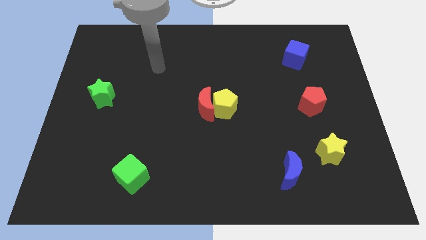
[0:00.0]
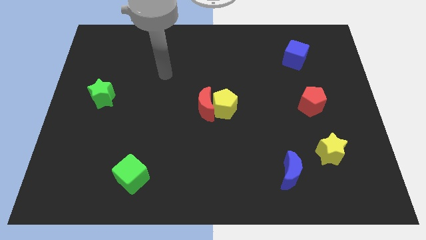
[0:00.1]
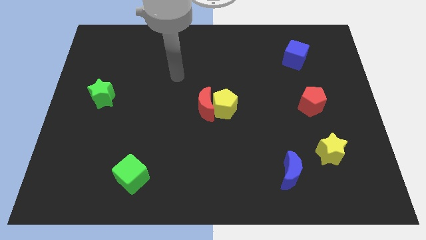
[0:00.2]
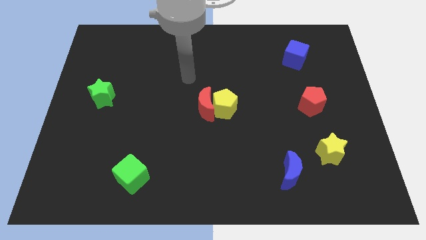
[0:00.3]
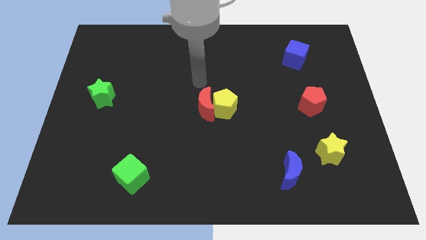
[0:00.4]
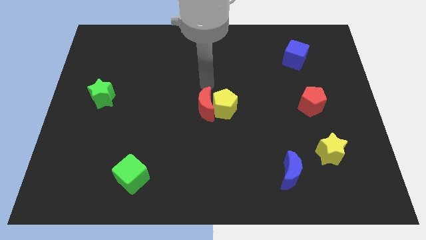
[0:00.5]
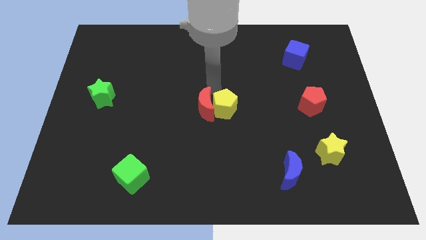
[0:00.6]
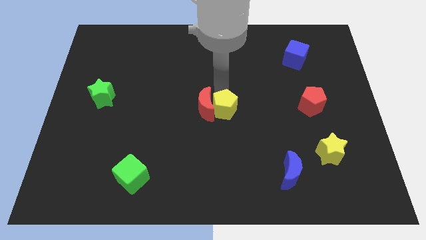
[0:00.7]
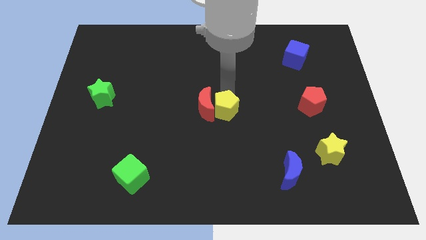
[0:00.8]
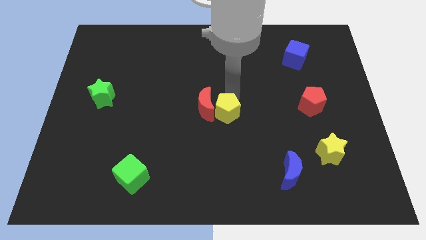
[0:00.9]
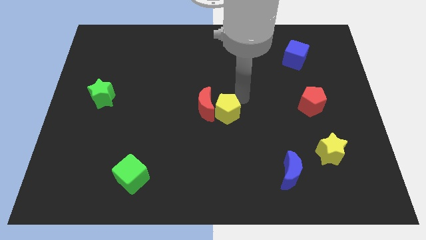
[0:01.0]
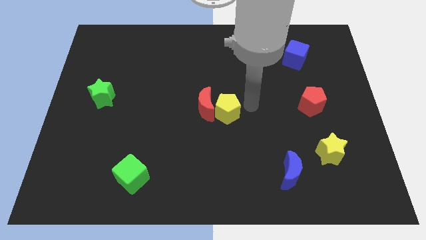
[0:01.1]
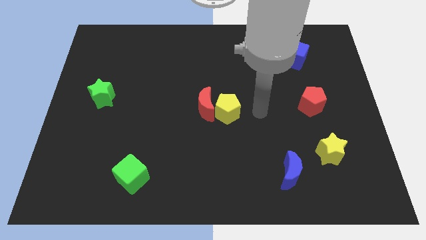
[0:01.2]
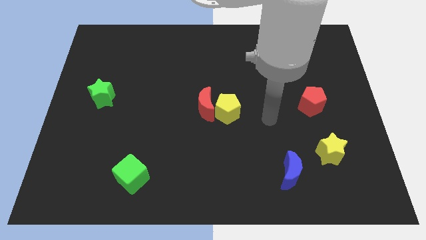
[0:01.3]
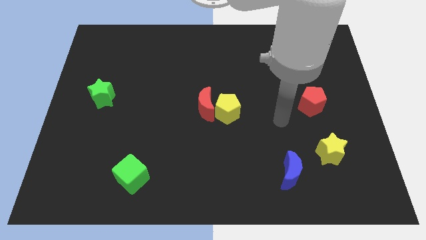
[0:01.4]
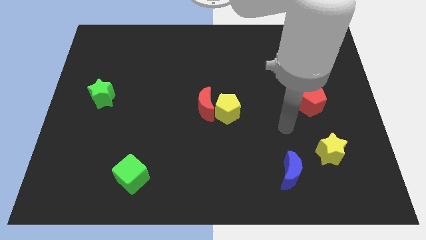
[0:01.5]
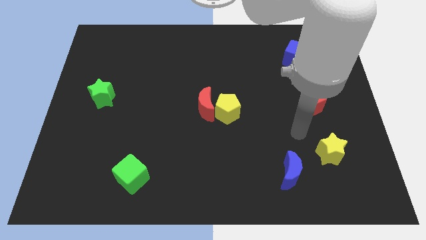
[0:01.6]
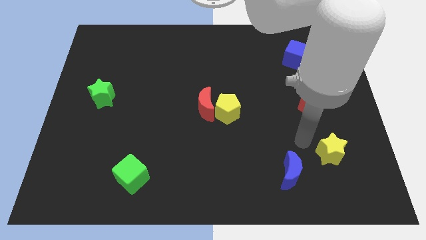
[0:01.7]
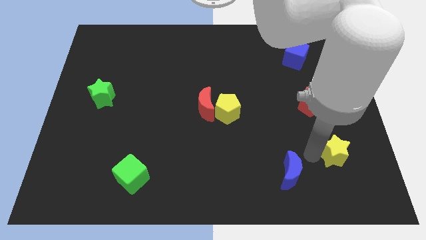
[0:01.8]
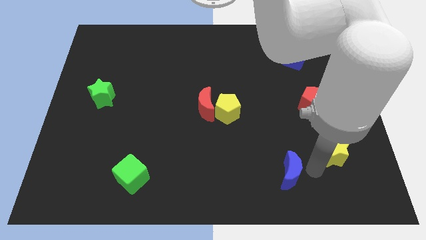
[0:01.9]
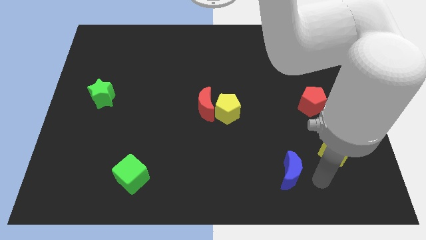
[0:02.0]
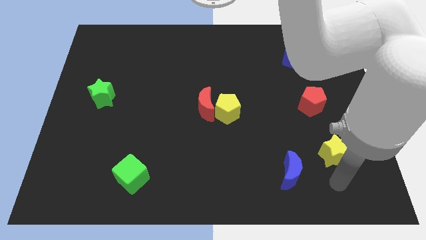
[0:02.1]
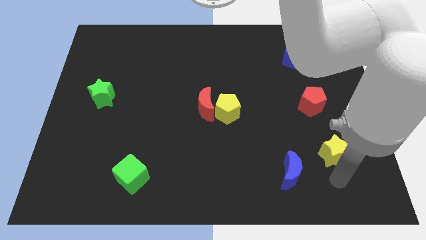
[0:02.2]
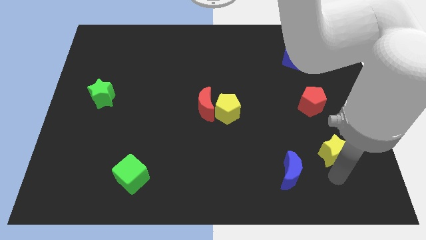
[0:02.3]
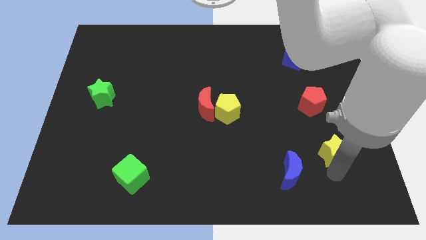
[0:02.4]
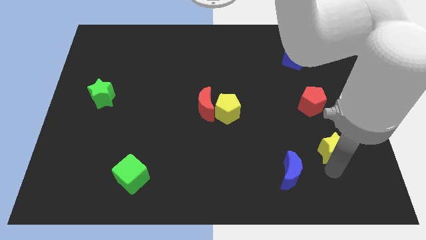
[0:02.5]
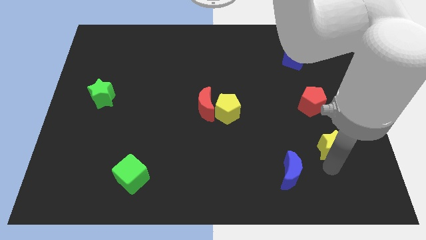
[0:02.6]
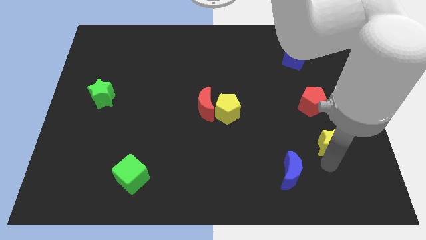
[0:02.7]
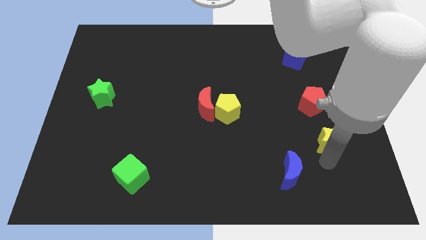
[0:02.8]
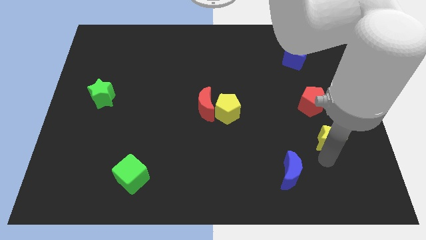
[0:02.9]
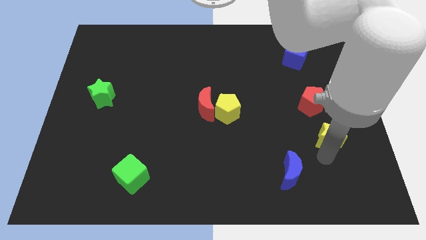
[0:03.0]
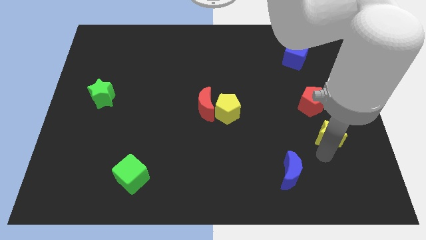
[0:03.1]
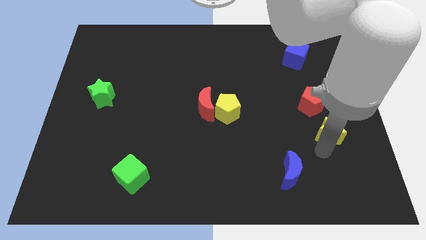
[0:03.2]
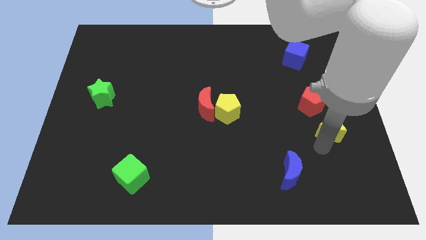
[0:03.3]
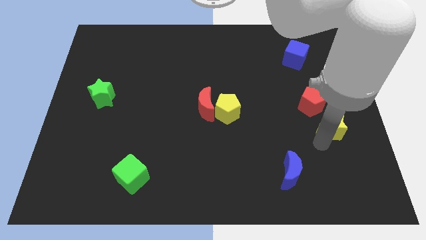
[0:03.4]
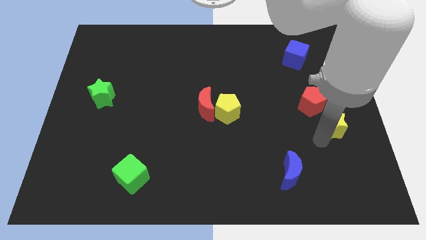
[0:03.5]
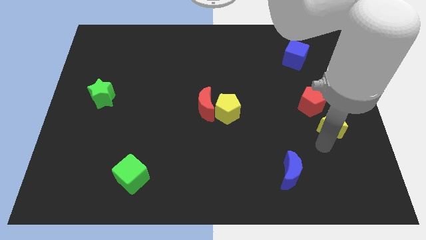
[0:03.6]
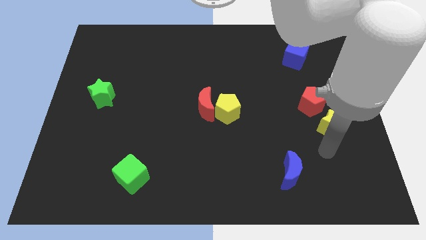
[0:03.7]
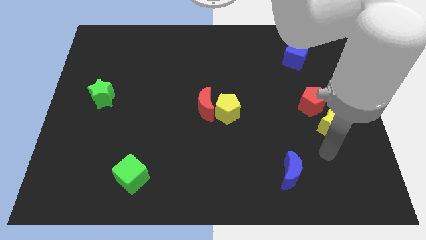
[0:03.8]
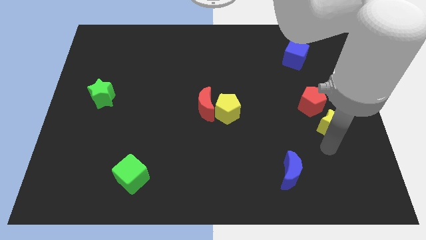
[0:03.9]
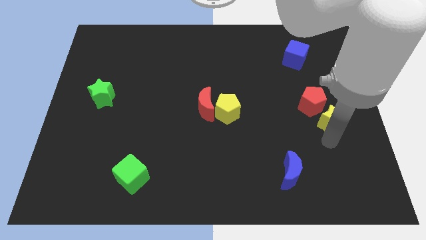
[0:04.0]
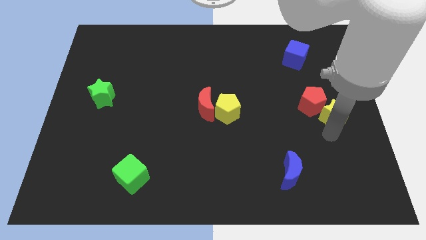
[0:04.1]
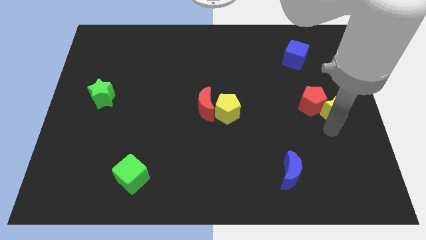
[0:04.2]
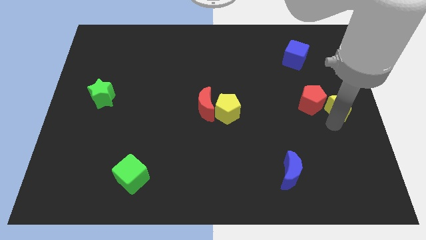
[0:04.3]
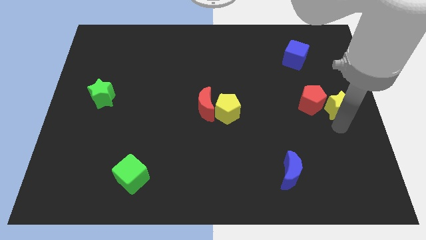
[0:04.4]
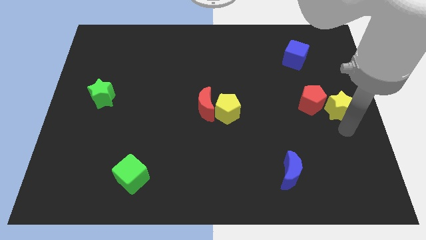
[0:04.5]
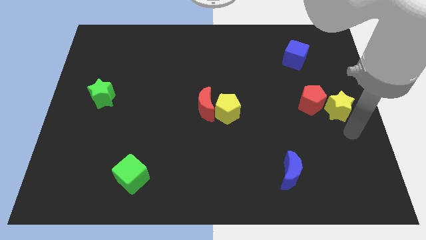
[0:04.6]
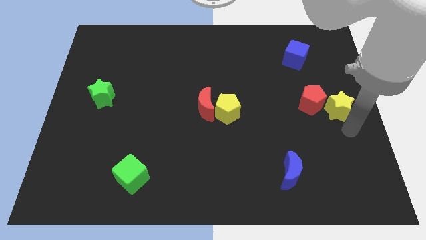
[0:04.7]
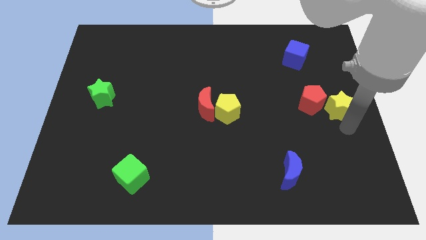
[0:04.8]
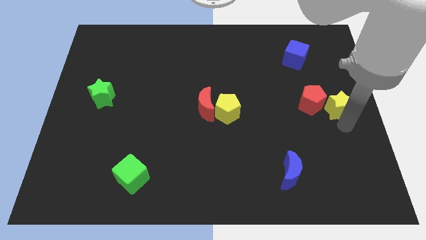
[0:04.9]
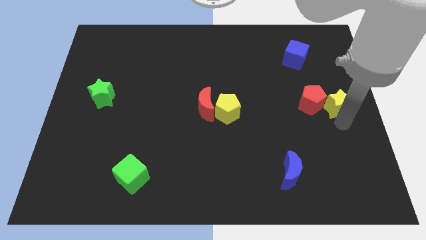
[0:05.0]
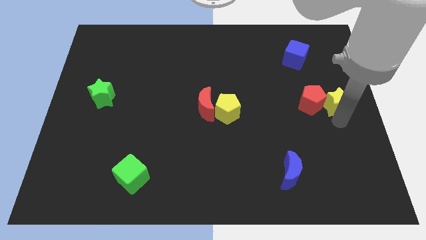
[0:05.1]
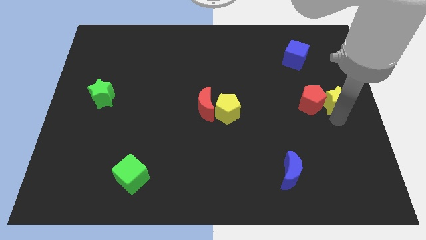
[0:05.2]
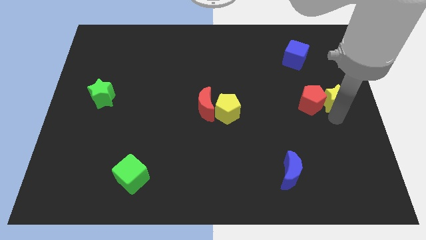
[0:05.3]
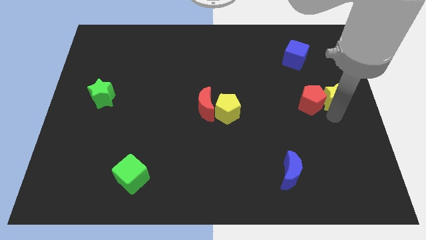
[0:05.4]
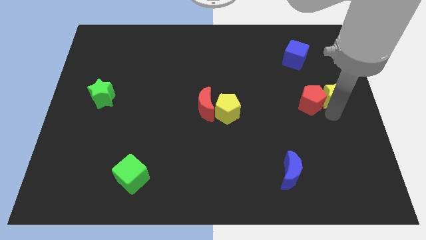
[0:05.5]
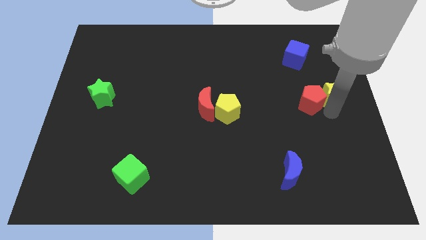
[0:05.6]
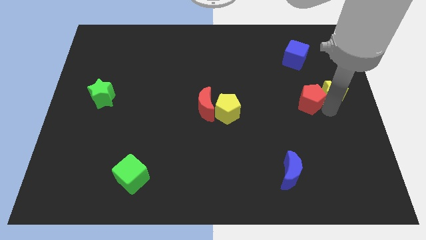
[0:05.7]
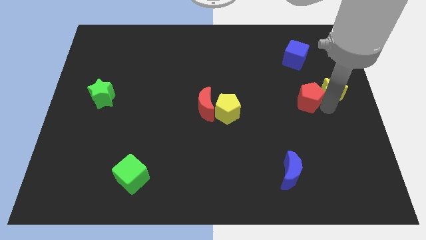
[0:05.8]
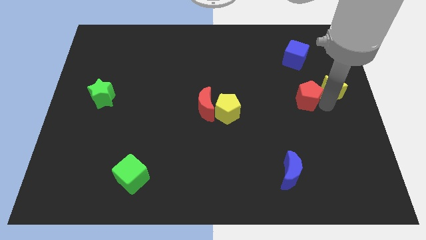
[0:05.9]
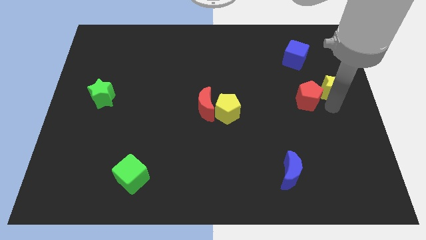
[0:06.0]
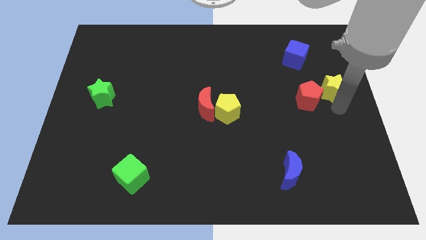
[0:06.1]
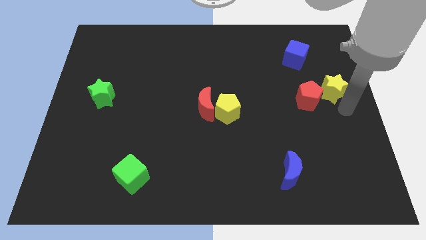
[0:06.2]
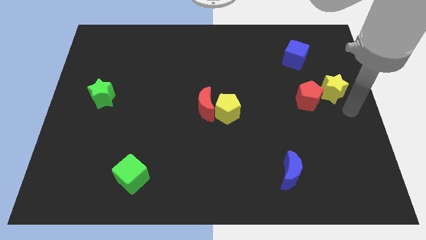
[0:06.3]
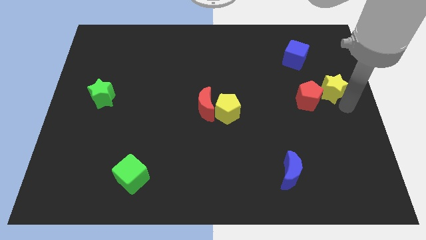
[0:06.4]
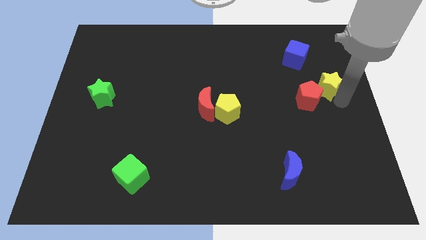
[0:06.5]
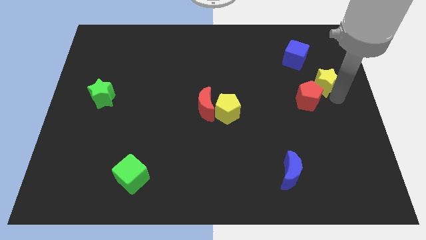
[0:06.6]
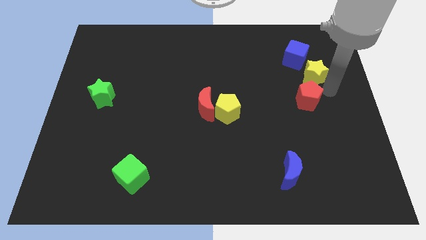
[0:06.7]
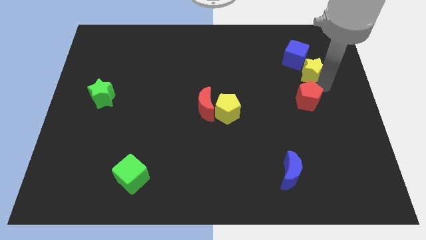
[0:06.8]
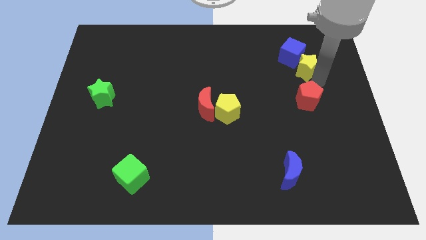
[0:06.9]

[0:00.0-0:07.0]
push the yellow star to the blue cube
